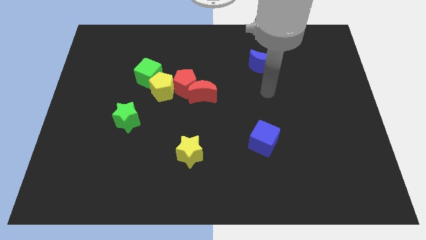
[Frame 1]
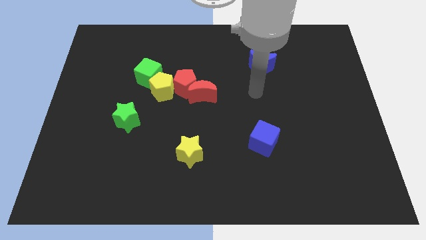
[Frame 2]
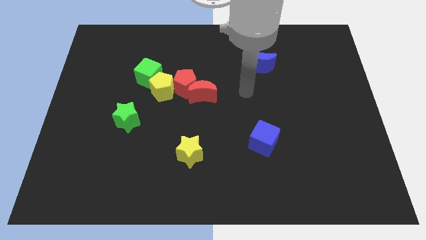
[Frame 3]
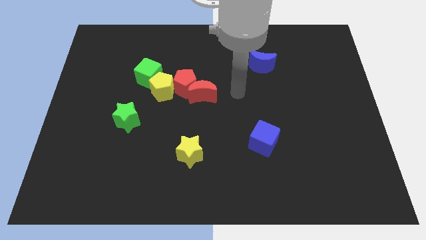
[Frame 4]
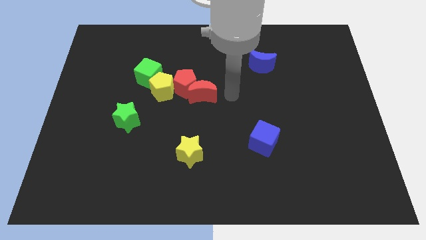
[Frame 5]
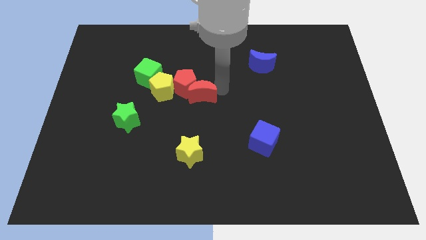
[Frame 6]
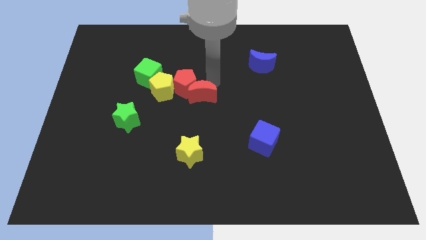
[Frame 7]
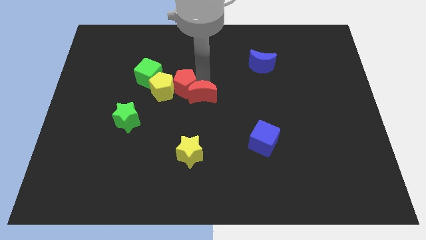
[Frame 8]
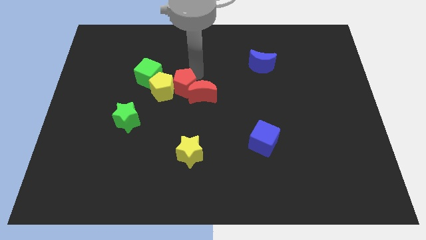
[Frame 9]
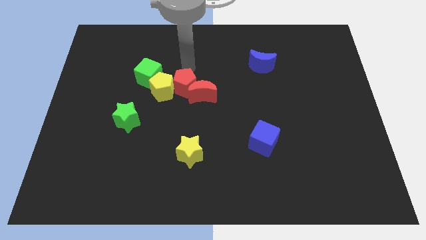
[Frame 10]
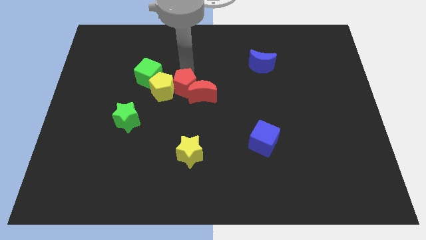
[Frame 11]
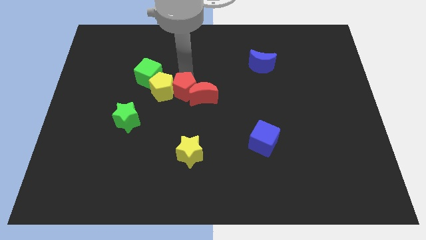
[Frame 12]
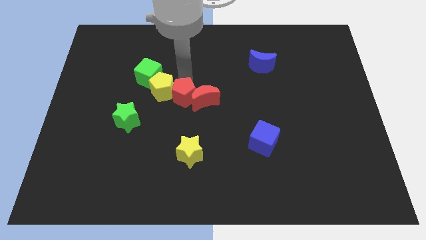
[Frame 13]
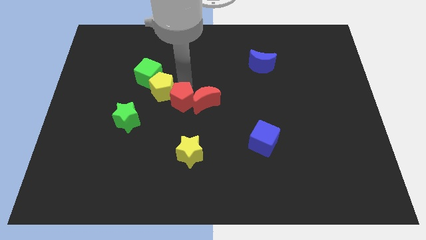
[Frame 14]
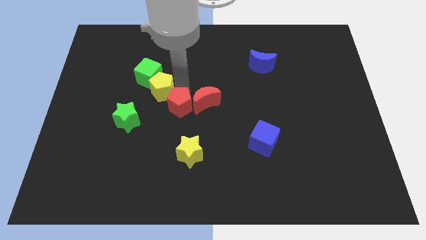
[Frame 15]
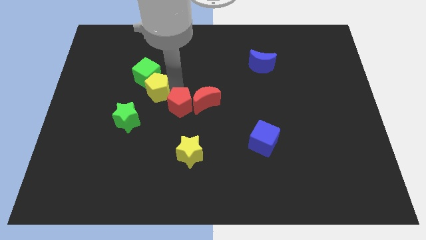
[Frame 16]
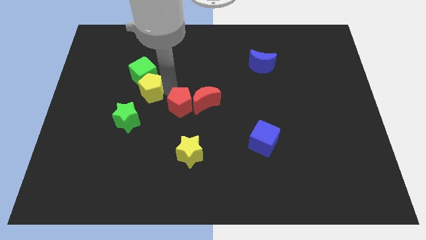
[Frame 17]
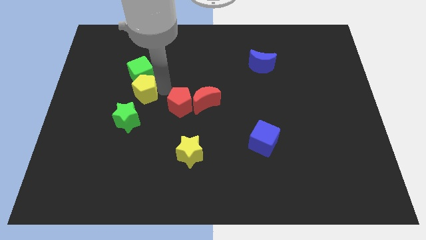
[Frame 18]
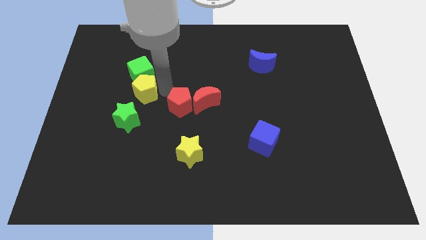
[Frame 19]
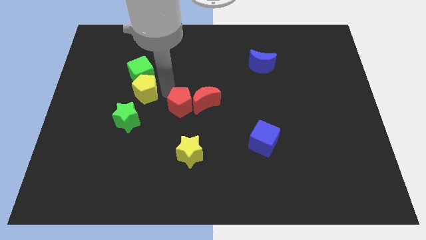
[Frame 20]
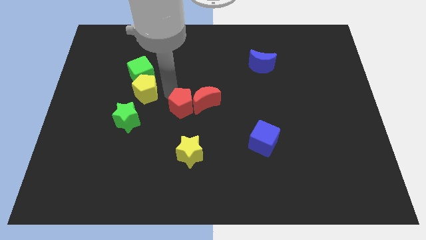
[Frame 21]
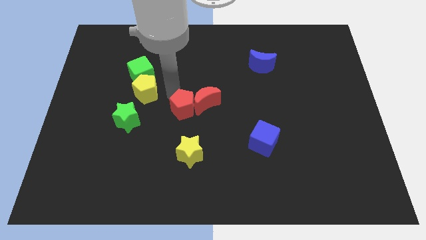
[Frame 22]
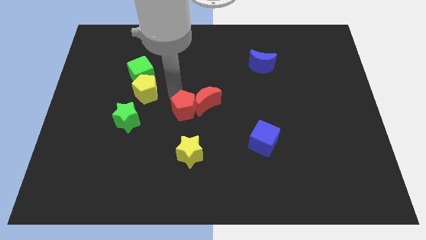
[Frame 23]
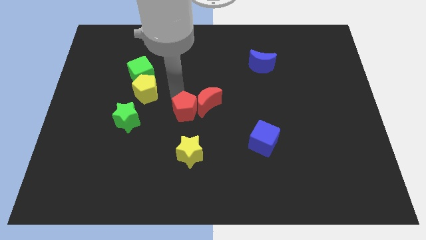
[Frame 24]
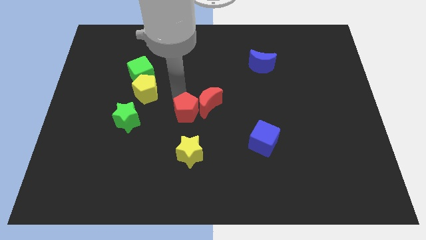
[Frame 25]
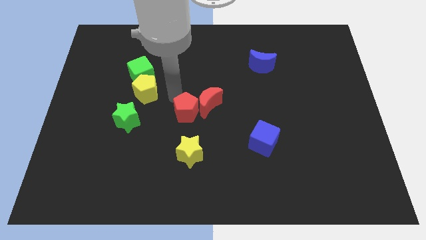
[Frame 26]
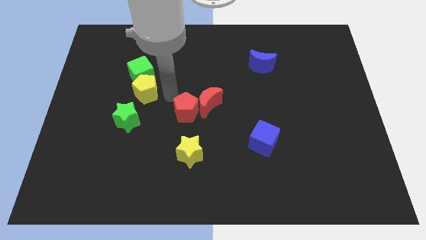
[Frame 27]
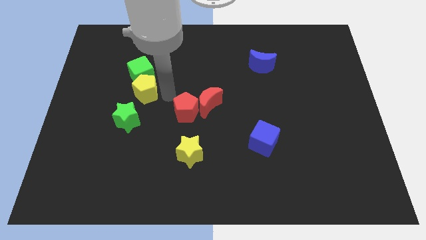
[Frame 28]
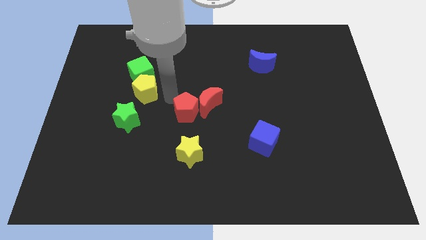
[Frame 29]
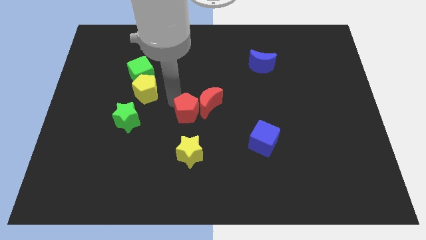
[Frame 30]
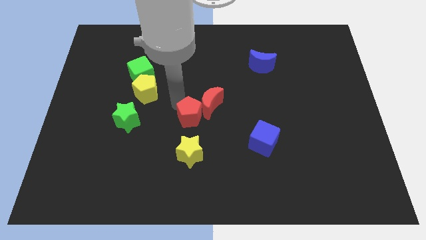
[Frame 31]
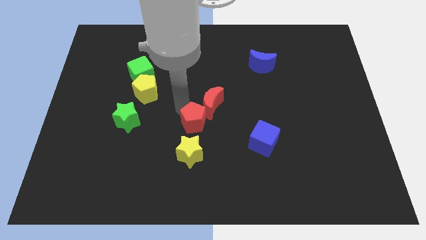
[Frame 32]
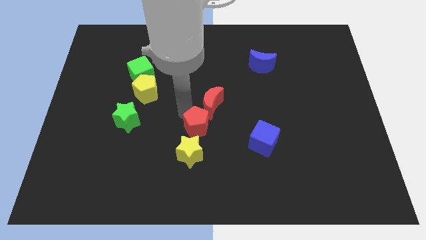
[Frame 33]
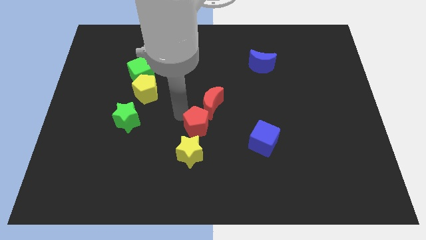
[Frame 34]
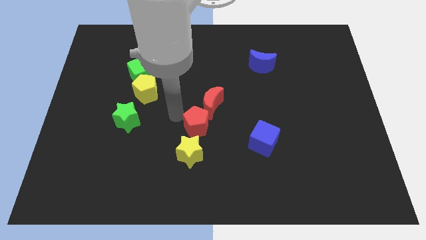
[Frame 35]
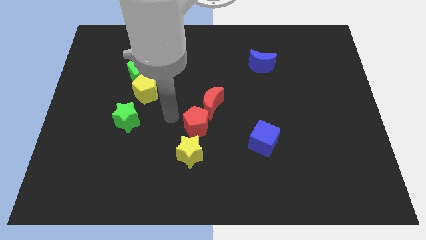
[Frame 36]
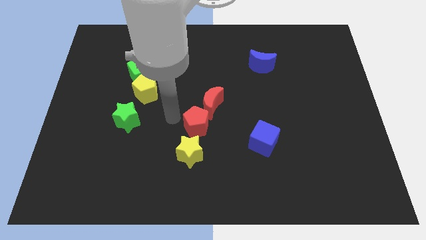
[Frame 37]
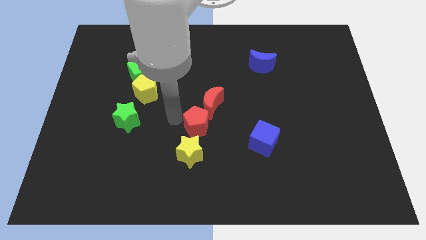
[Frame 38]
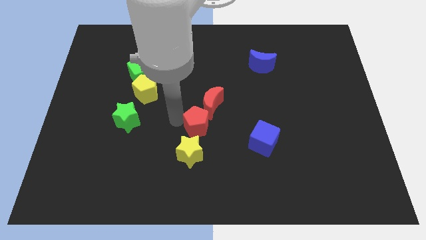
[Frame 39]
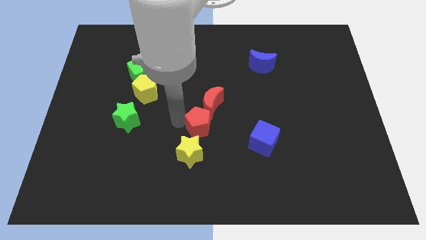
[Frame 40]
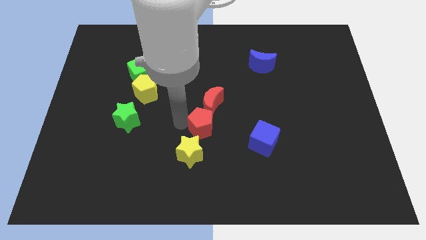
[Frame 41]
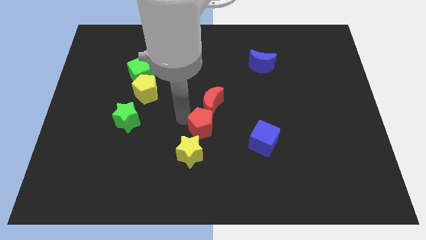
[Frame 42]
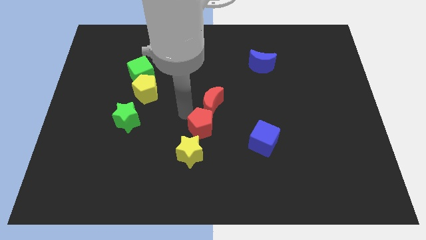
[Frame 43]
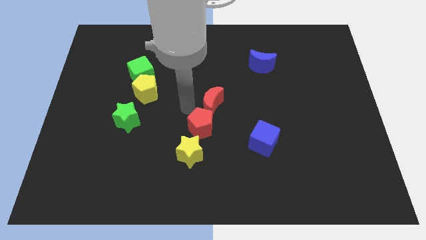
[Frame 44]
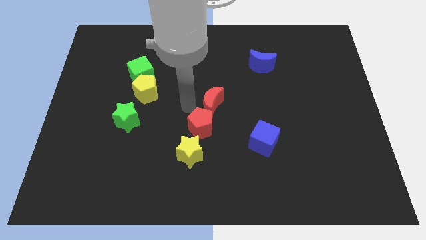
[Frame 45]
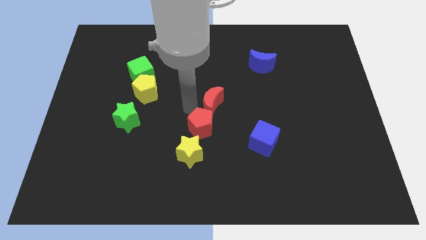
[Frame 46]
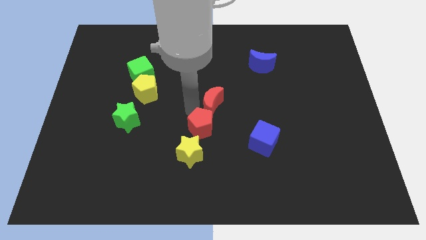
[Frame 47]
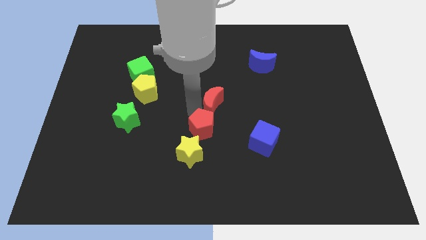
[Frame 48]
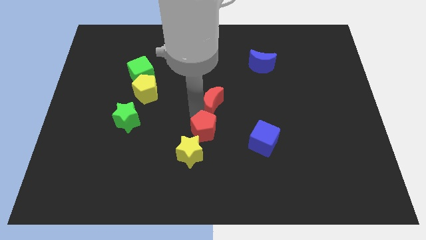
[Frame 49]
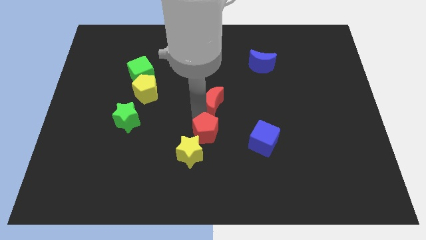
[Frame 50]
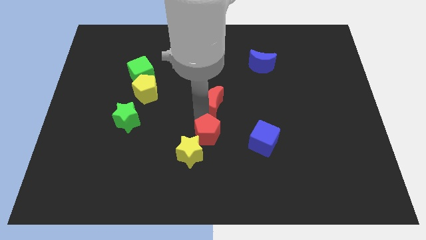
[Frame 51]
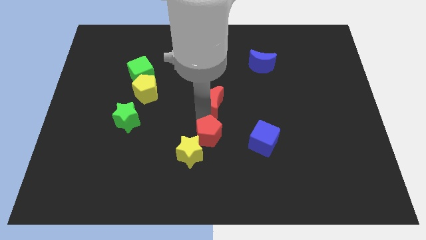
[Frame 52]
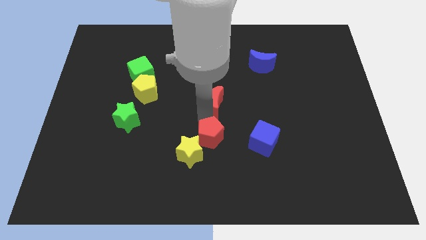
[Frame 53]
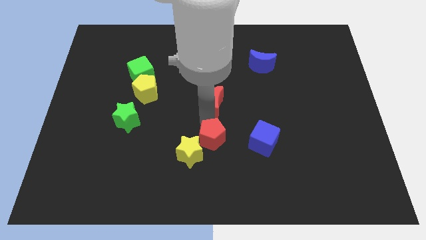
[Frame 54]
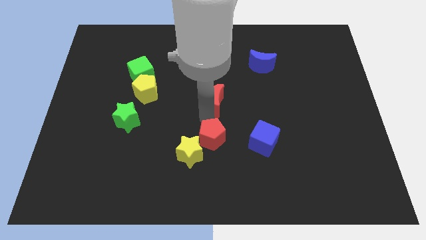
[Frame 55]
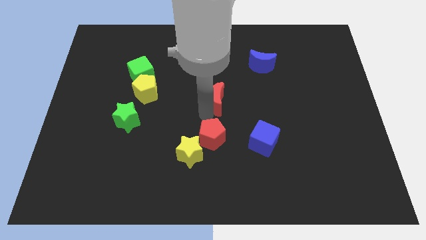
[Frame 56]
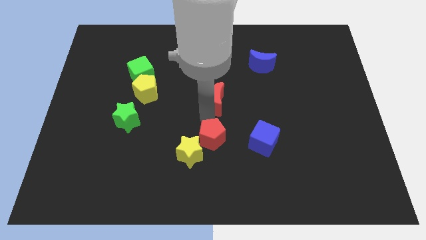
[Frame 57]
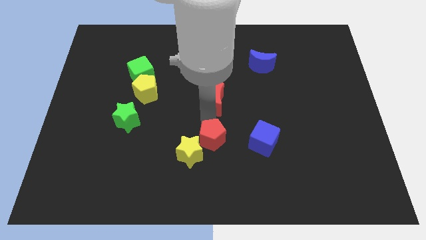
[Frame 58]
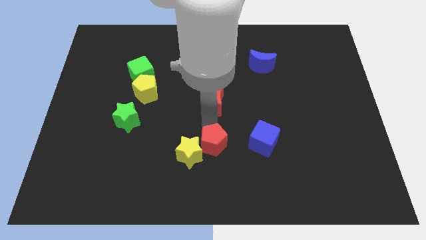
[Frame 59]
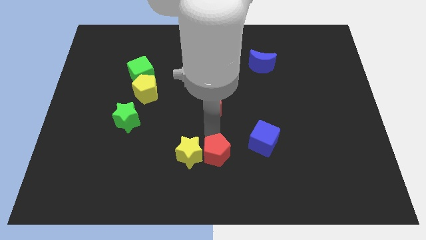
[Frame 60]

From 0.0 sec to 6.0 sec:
slide the red pentagon to the bottom right side of the yellow star
